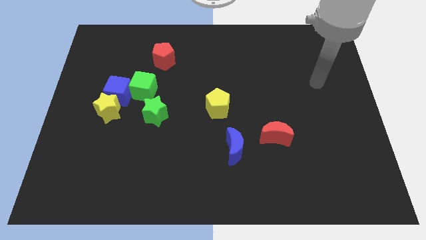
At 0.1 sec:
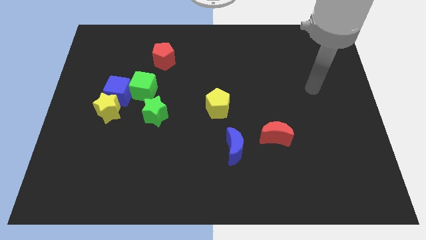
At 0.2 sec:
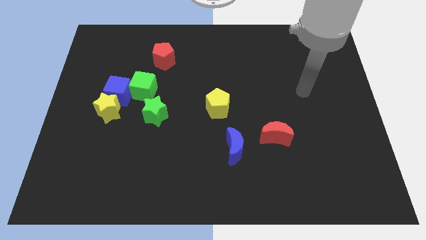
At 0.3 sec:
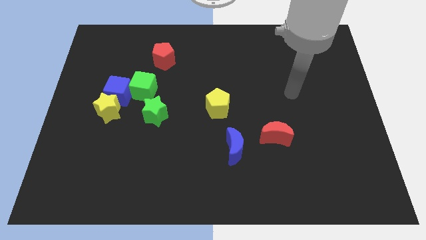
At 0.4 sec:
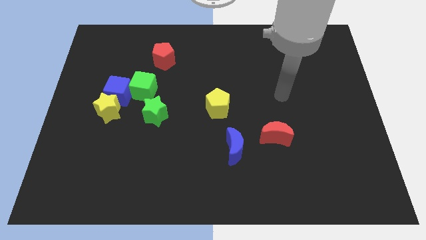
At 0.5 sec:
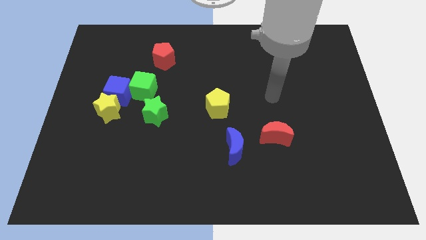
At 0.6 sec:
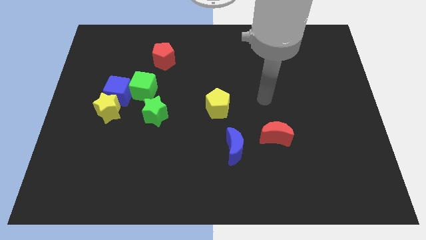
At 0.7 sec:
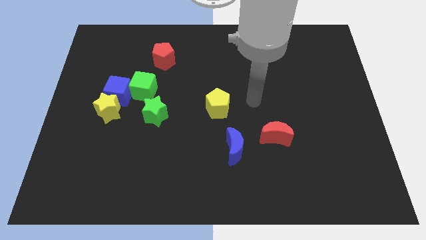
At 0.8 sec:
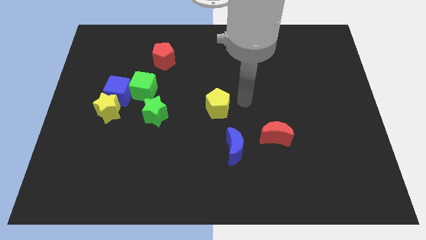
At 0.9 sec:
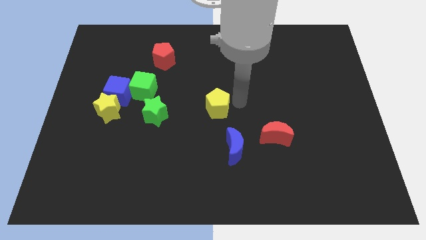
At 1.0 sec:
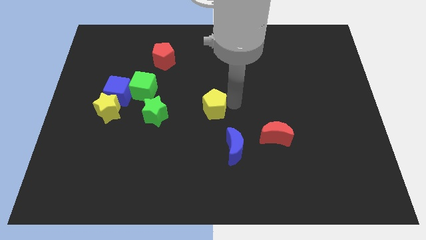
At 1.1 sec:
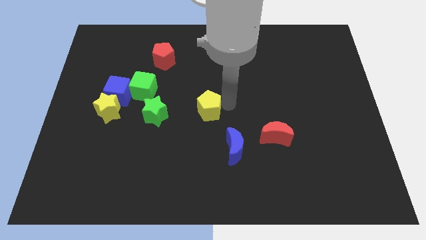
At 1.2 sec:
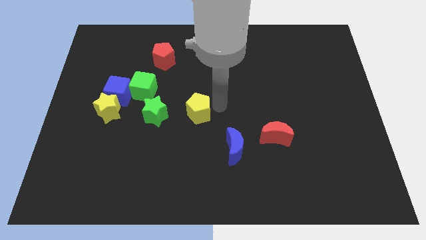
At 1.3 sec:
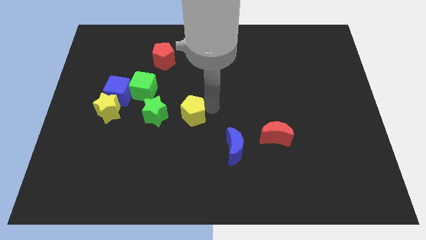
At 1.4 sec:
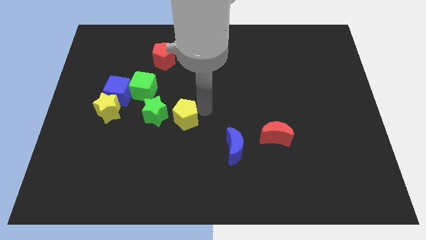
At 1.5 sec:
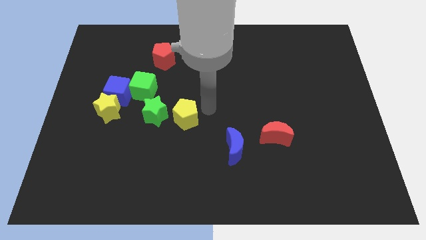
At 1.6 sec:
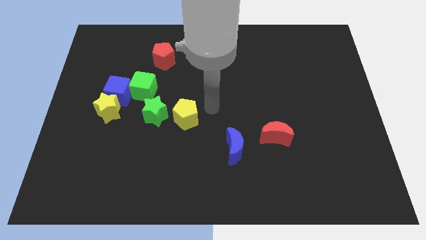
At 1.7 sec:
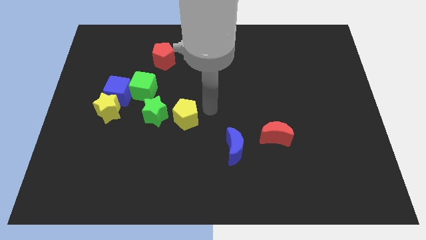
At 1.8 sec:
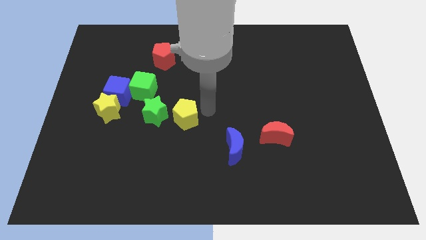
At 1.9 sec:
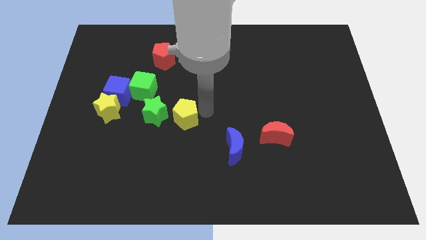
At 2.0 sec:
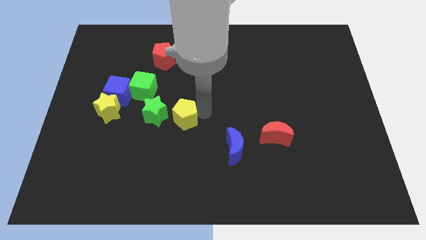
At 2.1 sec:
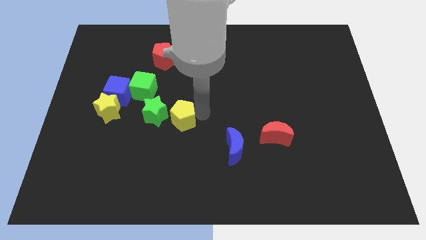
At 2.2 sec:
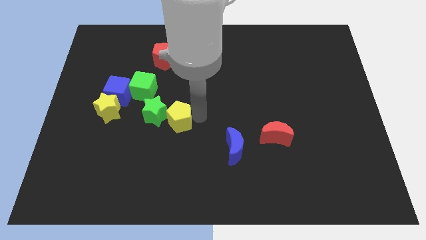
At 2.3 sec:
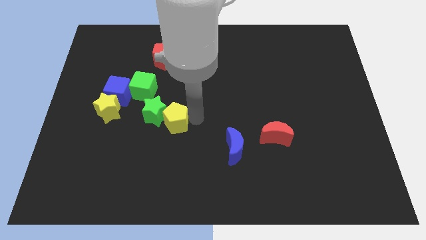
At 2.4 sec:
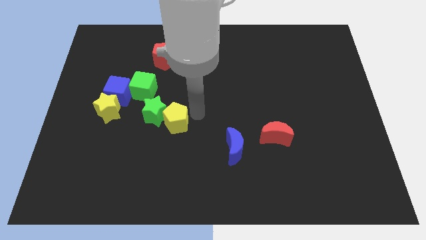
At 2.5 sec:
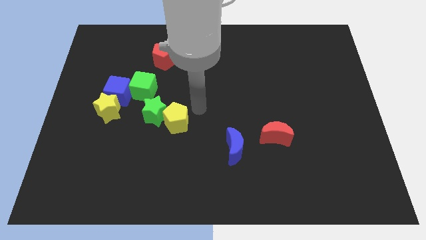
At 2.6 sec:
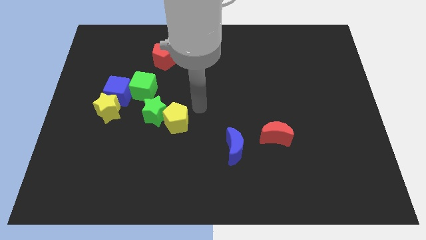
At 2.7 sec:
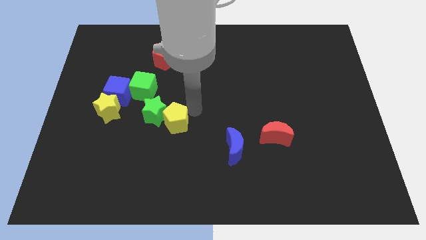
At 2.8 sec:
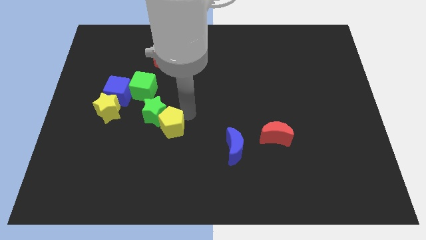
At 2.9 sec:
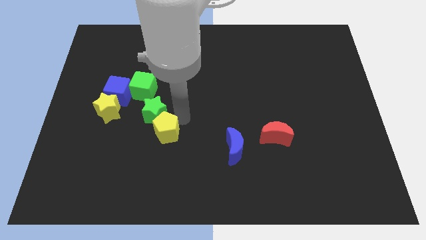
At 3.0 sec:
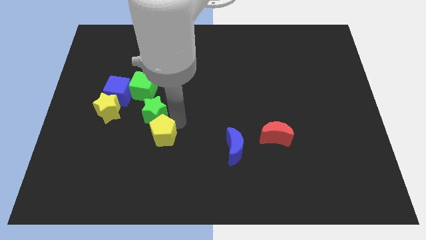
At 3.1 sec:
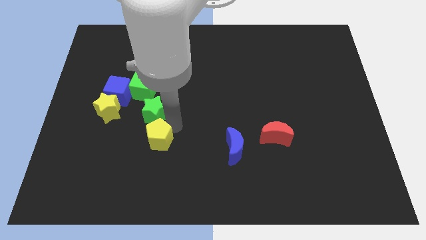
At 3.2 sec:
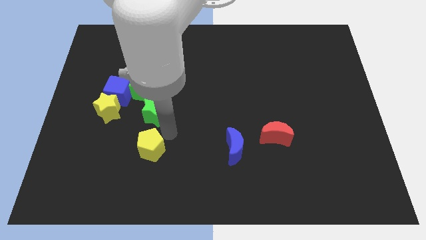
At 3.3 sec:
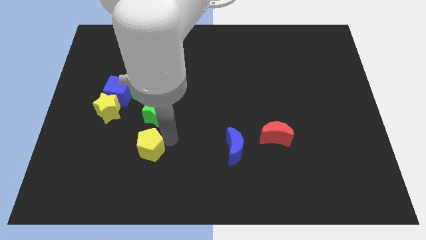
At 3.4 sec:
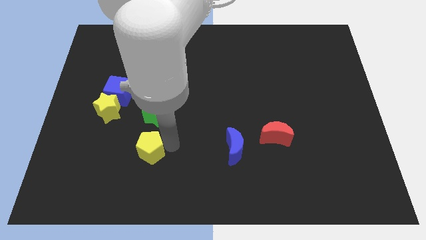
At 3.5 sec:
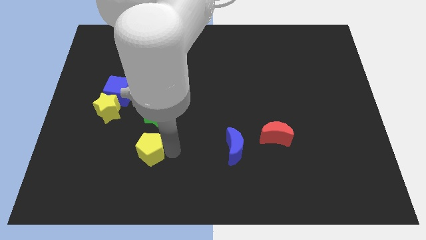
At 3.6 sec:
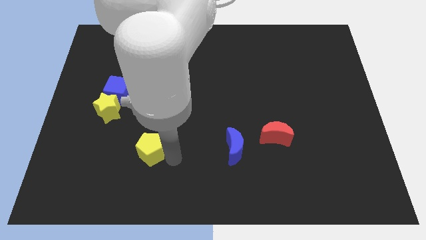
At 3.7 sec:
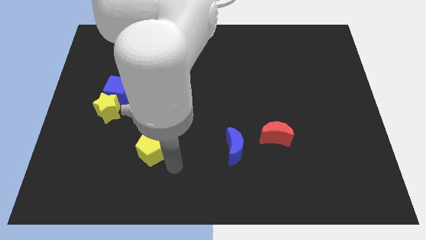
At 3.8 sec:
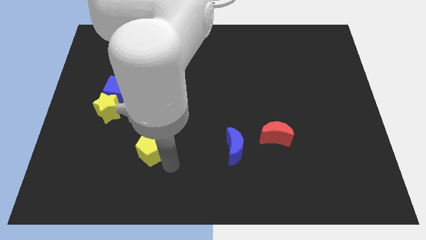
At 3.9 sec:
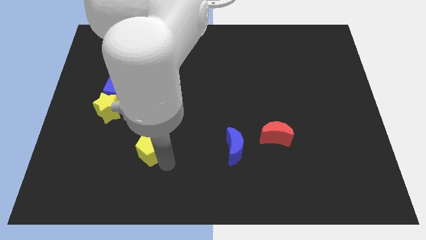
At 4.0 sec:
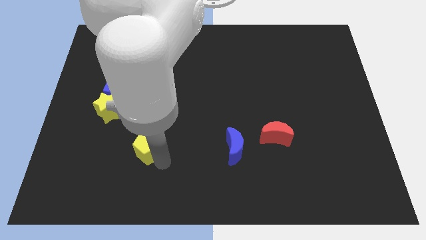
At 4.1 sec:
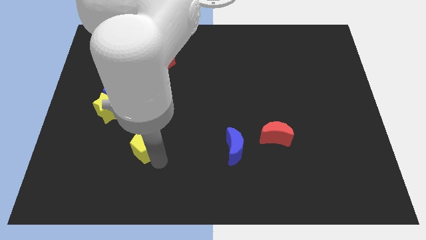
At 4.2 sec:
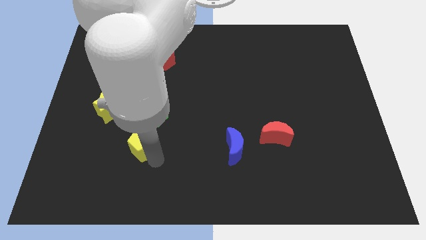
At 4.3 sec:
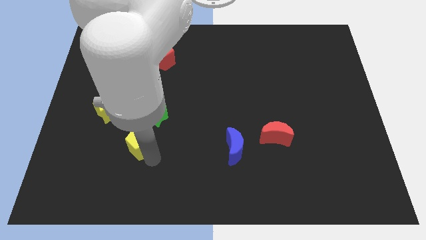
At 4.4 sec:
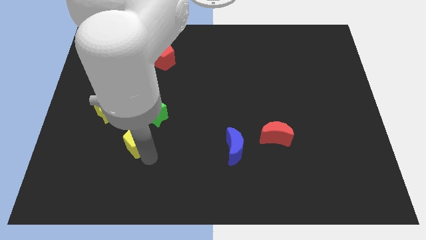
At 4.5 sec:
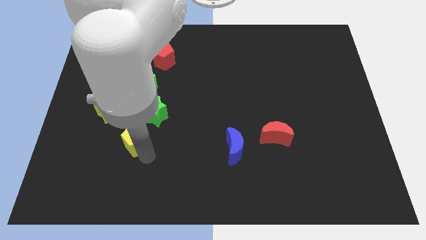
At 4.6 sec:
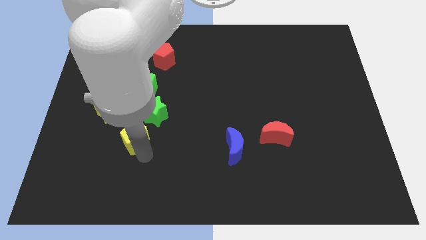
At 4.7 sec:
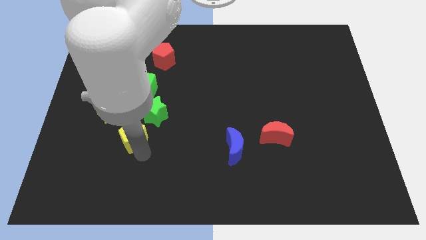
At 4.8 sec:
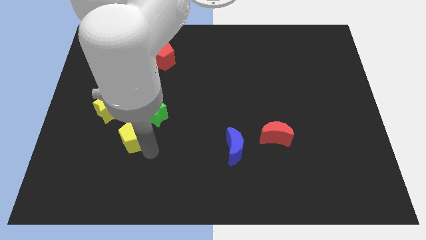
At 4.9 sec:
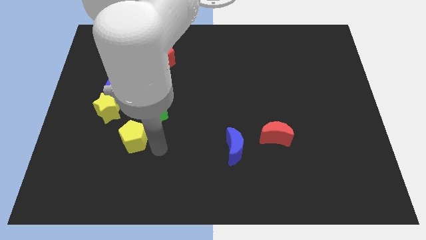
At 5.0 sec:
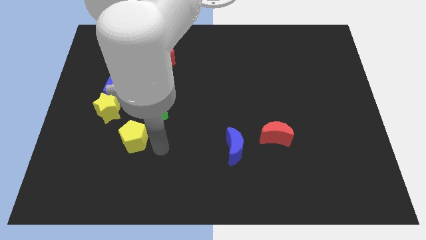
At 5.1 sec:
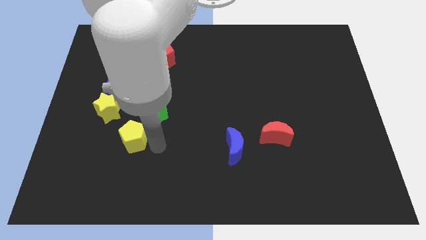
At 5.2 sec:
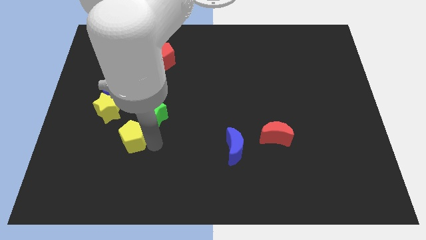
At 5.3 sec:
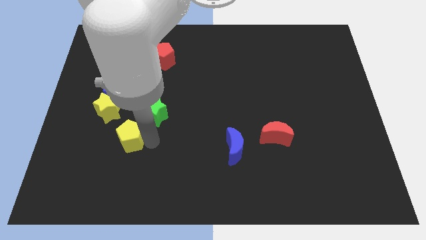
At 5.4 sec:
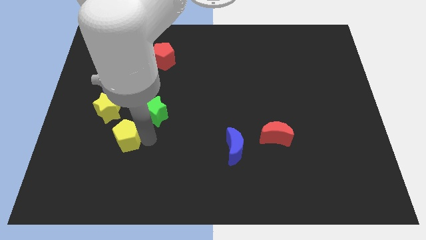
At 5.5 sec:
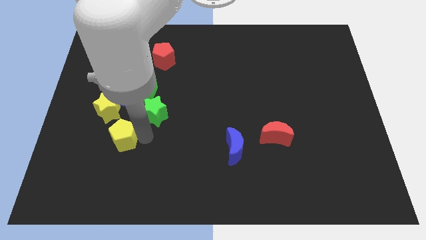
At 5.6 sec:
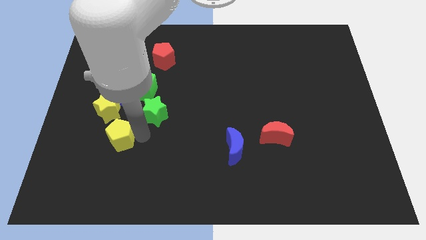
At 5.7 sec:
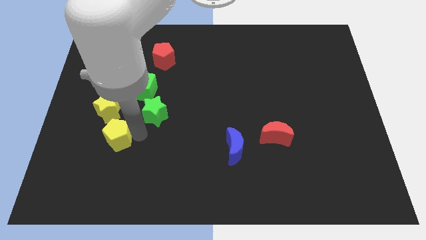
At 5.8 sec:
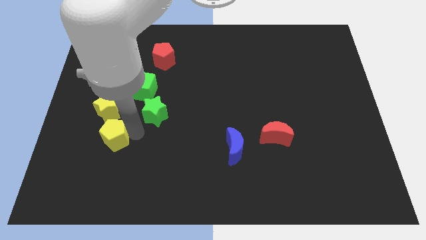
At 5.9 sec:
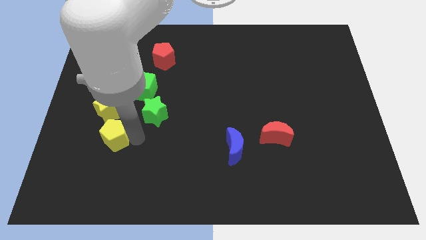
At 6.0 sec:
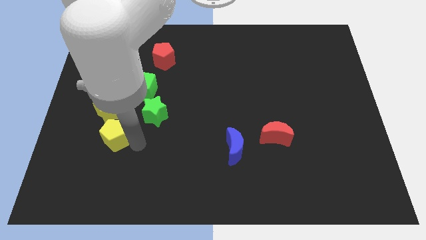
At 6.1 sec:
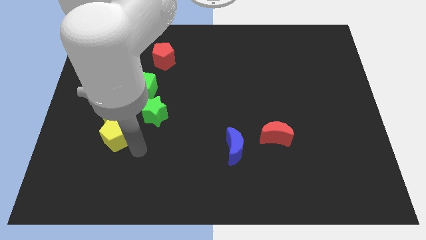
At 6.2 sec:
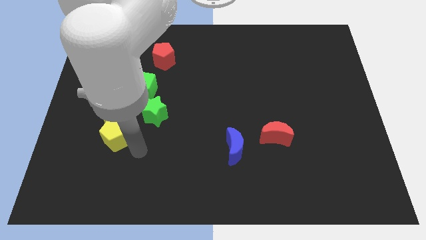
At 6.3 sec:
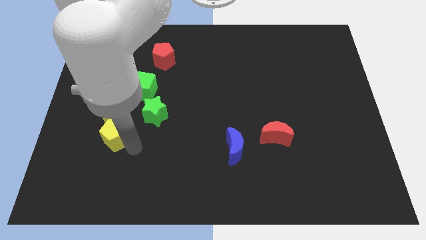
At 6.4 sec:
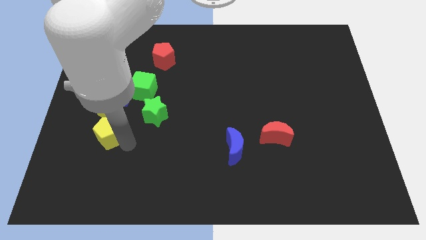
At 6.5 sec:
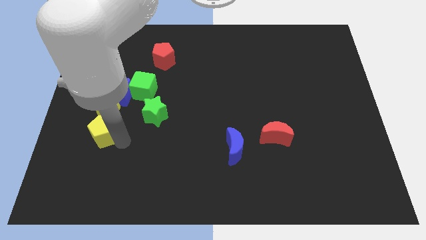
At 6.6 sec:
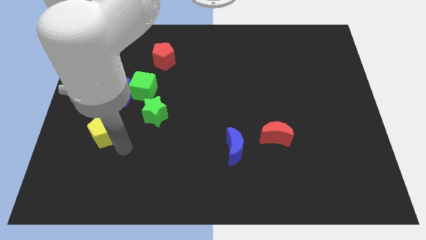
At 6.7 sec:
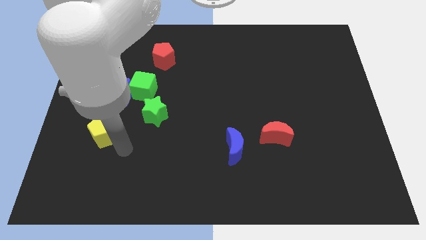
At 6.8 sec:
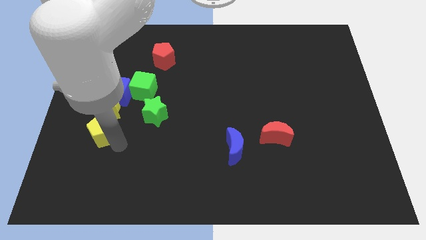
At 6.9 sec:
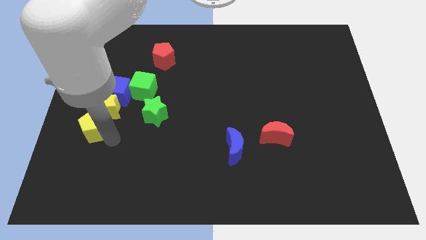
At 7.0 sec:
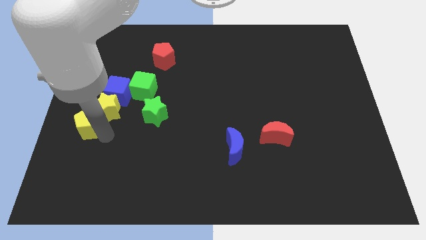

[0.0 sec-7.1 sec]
slide the yellow pentagon to the left side of the board
